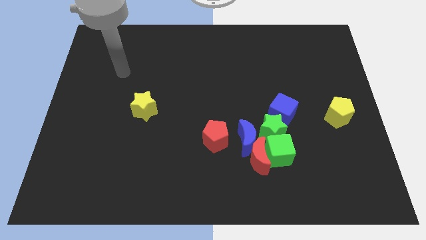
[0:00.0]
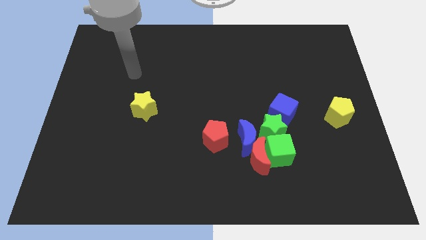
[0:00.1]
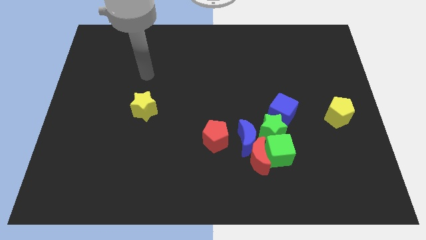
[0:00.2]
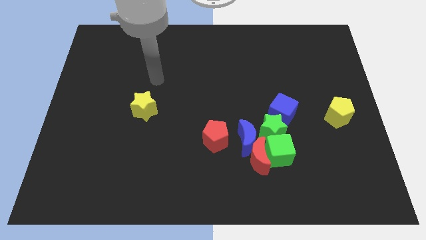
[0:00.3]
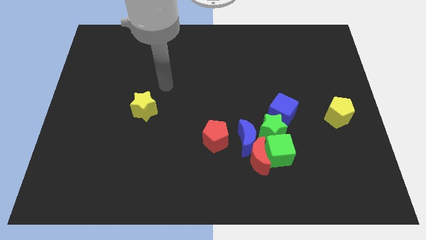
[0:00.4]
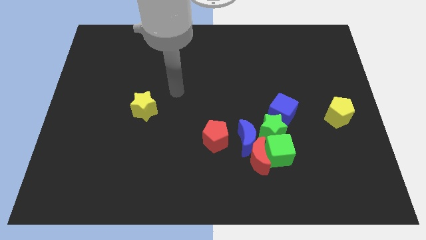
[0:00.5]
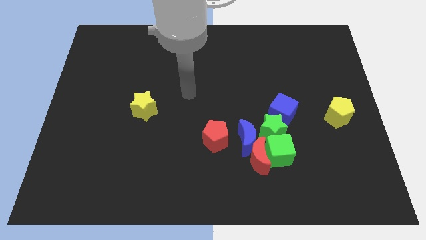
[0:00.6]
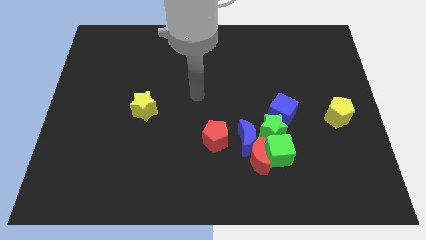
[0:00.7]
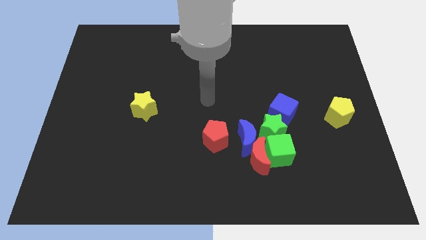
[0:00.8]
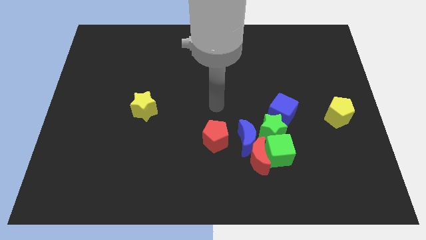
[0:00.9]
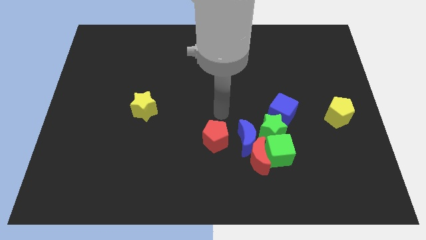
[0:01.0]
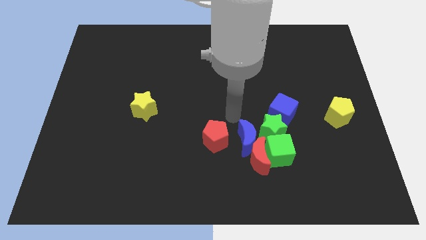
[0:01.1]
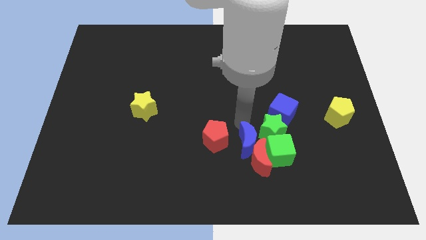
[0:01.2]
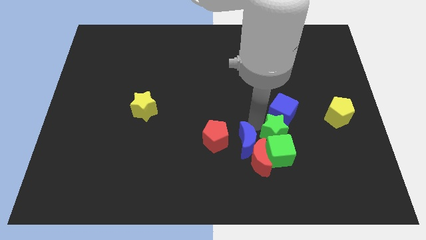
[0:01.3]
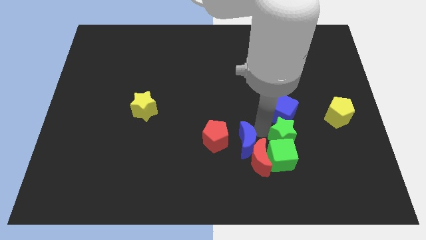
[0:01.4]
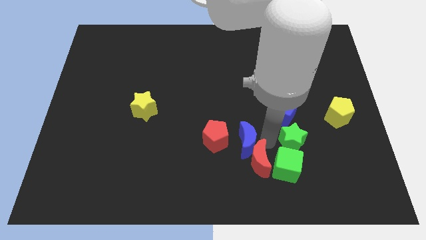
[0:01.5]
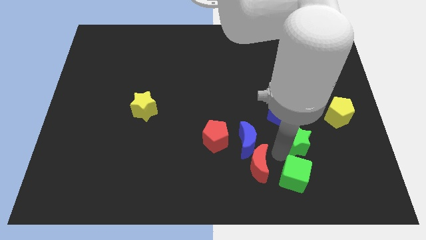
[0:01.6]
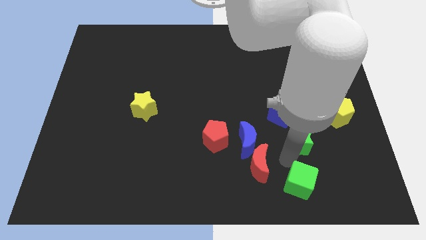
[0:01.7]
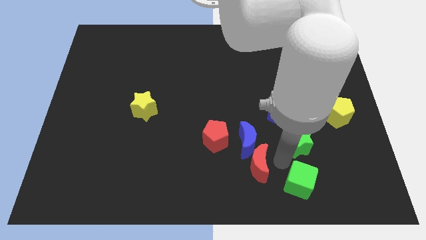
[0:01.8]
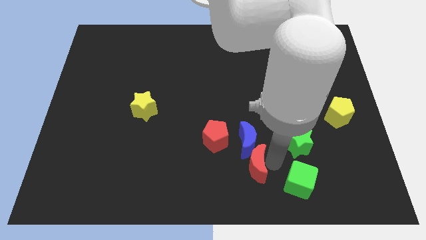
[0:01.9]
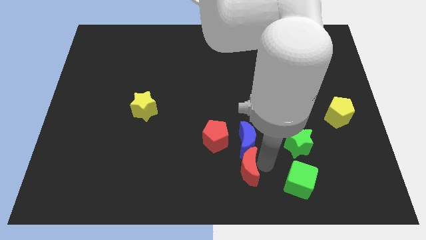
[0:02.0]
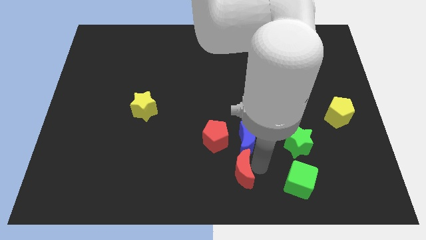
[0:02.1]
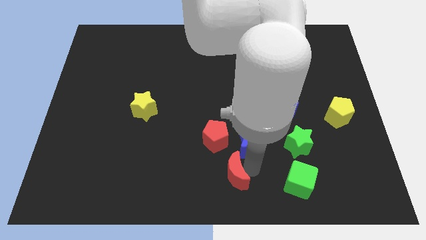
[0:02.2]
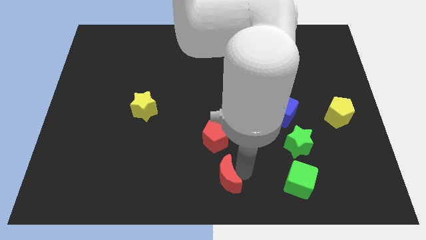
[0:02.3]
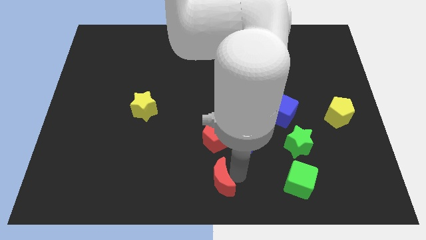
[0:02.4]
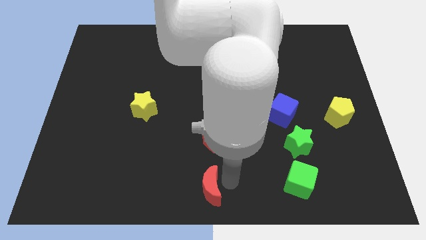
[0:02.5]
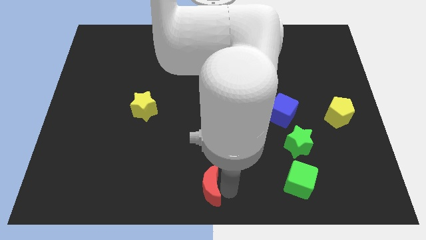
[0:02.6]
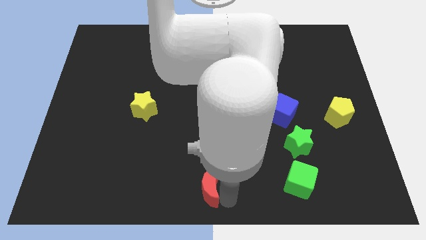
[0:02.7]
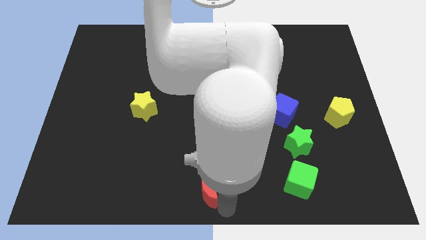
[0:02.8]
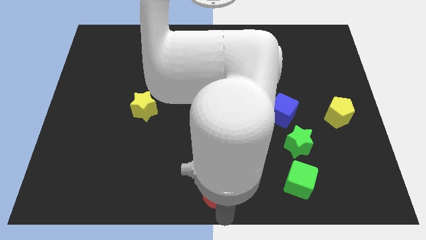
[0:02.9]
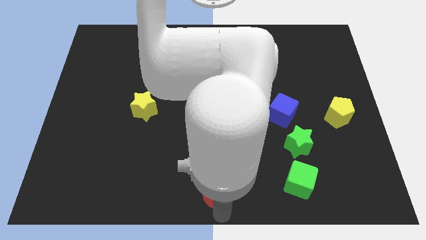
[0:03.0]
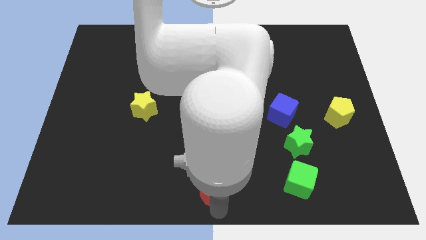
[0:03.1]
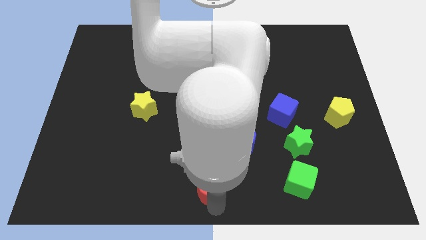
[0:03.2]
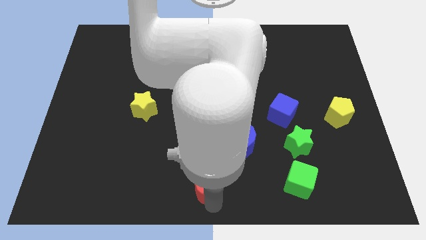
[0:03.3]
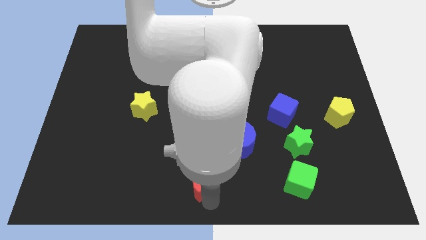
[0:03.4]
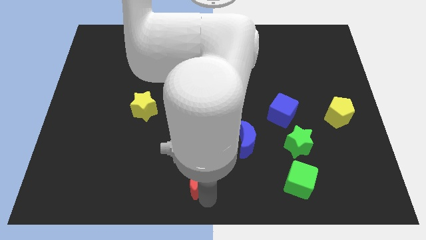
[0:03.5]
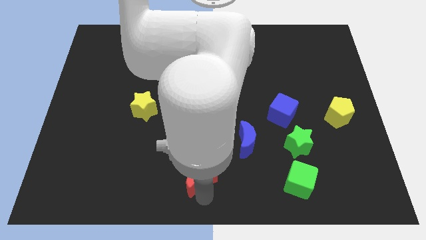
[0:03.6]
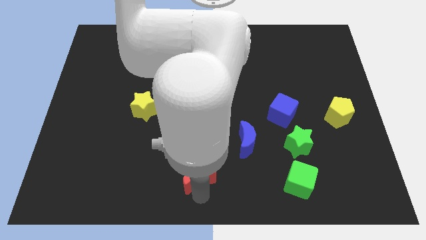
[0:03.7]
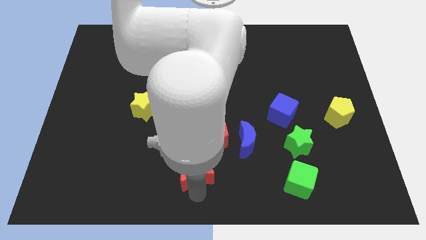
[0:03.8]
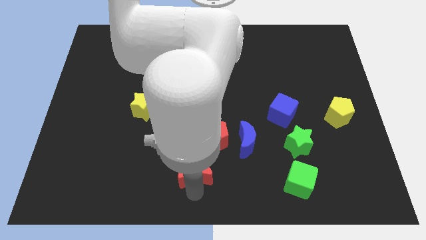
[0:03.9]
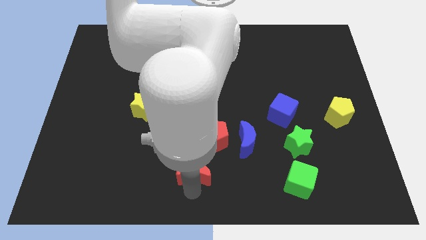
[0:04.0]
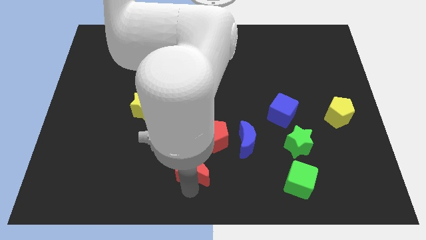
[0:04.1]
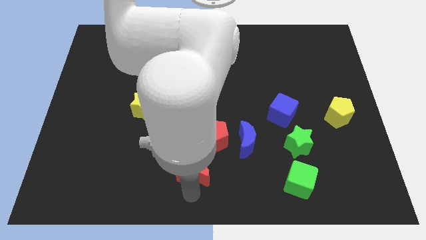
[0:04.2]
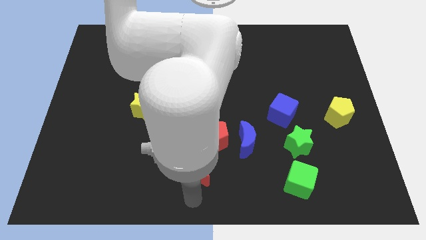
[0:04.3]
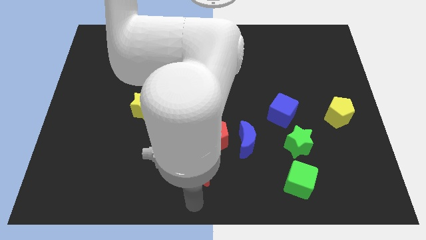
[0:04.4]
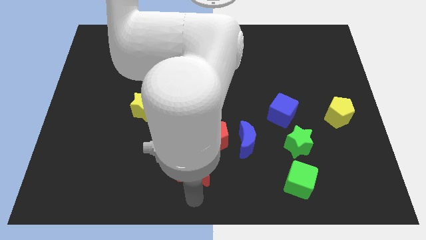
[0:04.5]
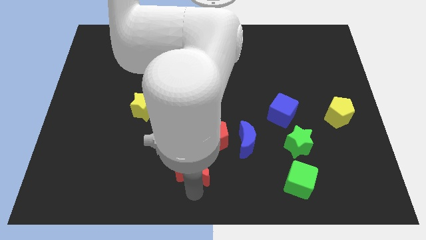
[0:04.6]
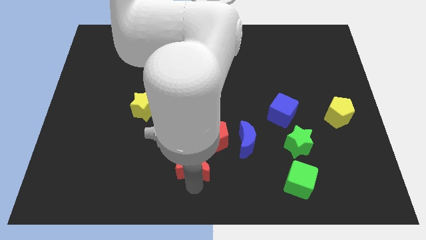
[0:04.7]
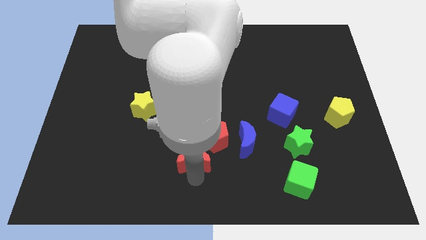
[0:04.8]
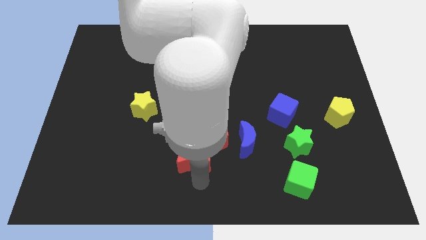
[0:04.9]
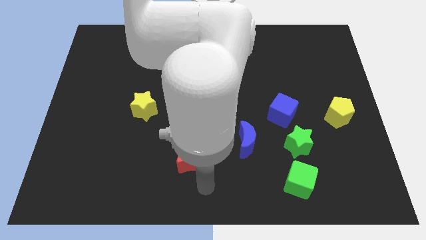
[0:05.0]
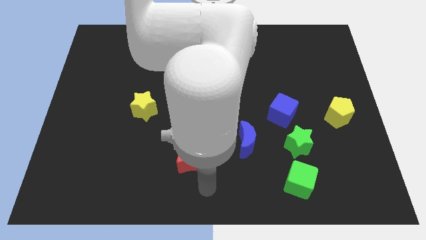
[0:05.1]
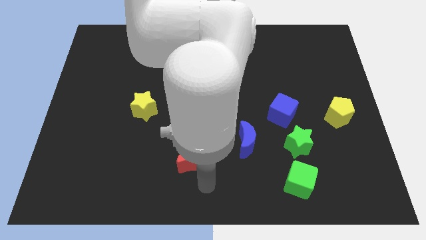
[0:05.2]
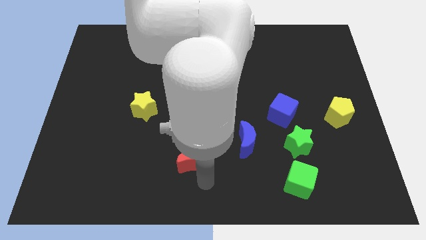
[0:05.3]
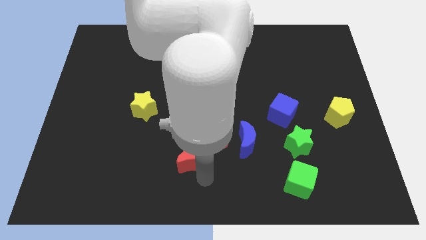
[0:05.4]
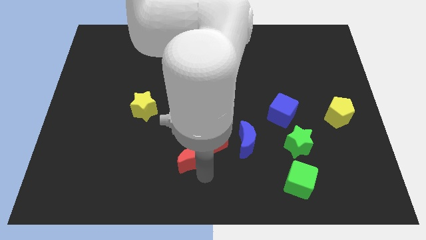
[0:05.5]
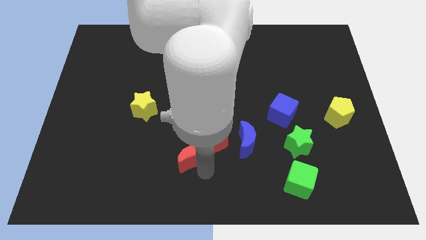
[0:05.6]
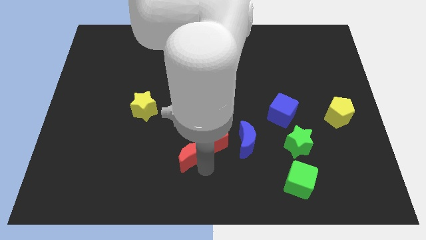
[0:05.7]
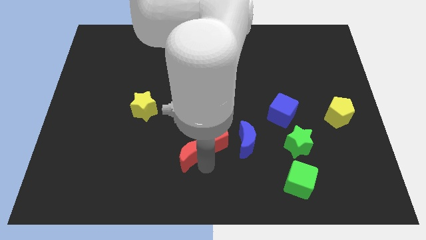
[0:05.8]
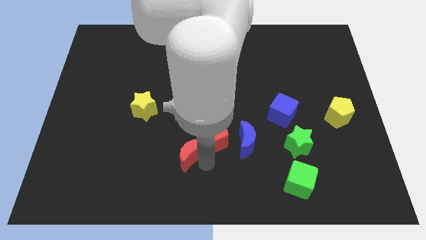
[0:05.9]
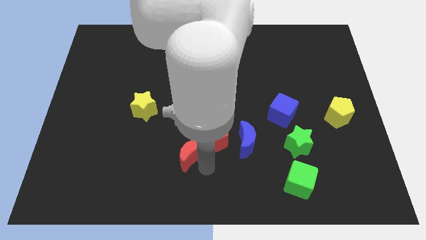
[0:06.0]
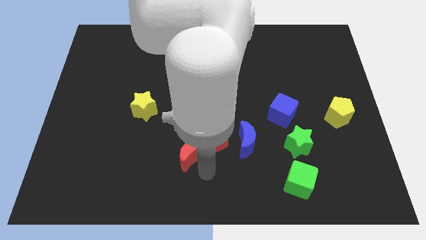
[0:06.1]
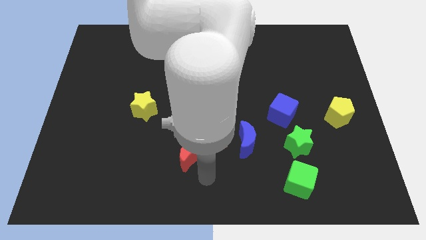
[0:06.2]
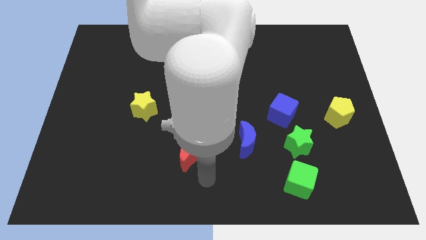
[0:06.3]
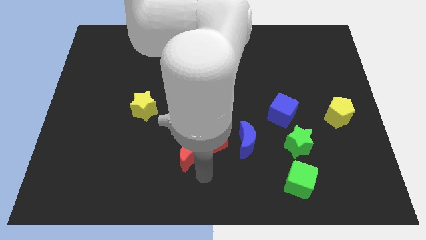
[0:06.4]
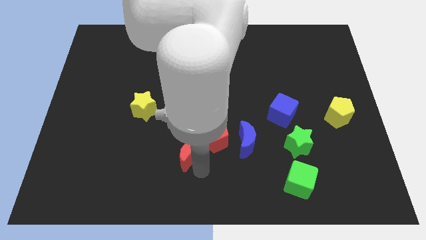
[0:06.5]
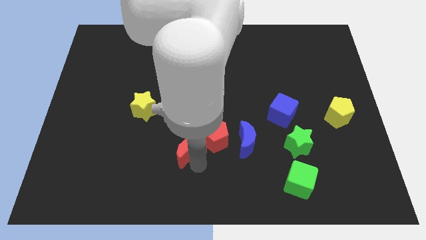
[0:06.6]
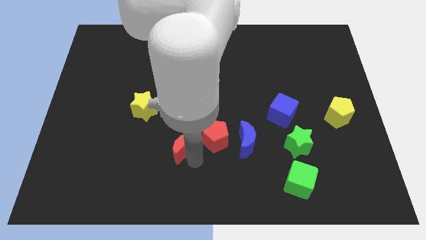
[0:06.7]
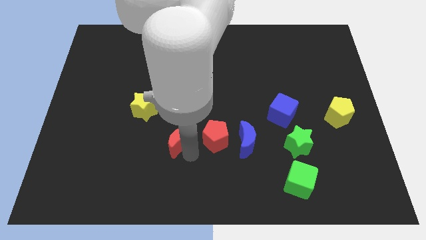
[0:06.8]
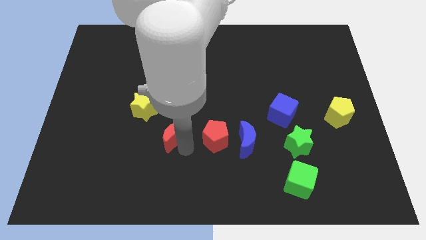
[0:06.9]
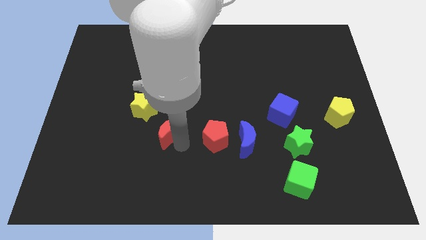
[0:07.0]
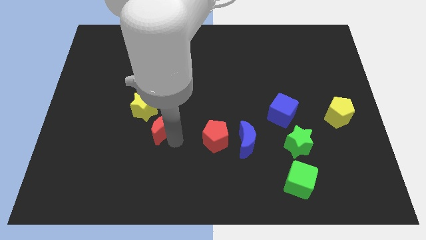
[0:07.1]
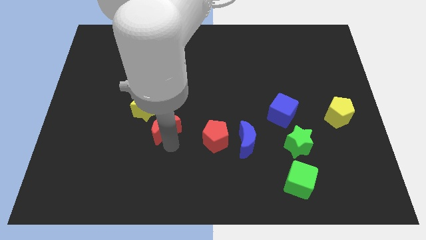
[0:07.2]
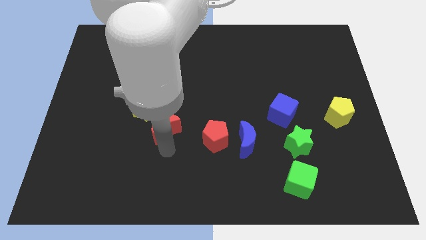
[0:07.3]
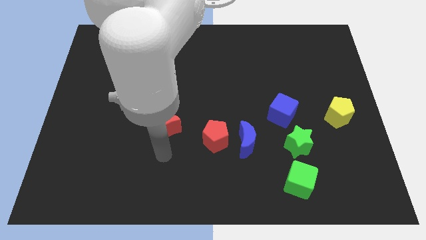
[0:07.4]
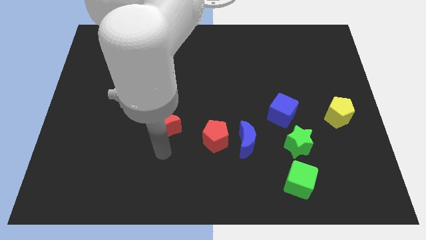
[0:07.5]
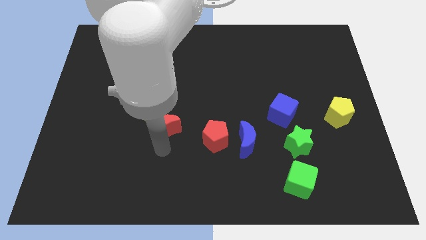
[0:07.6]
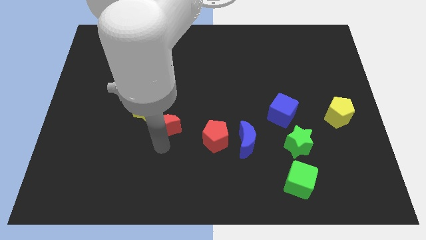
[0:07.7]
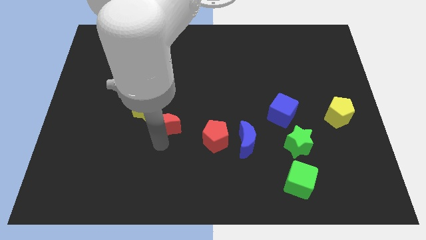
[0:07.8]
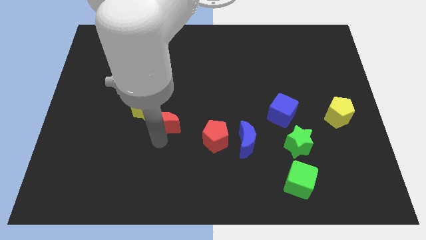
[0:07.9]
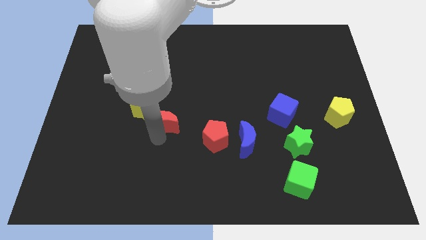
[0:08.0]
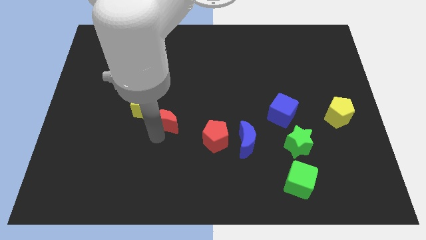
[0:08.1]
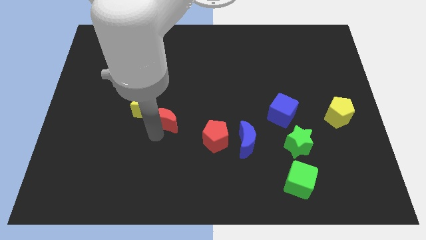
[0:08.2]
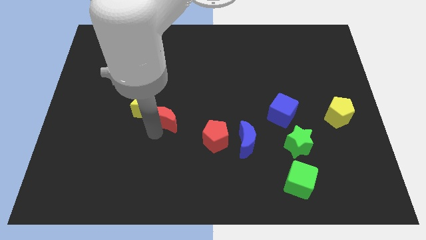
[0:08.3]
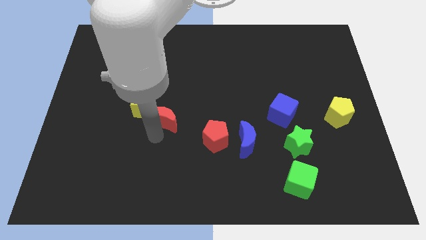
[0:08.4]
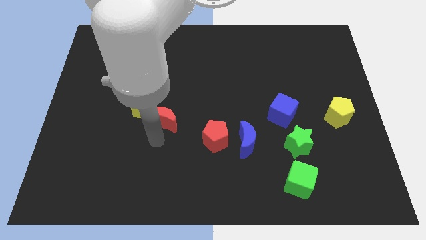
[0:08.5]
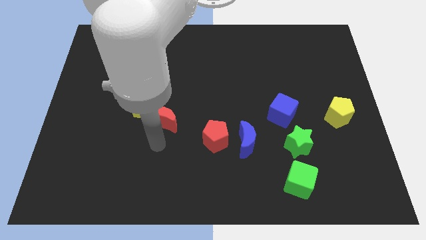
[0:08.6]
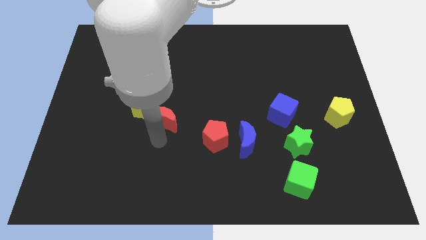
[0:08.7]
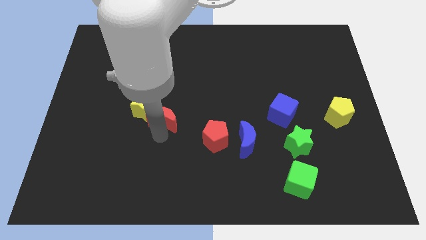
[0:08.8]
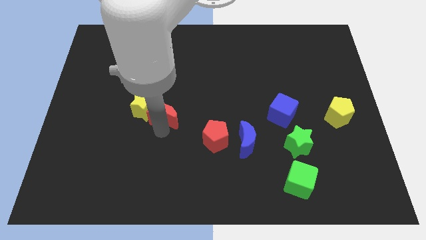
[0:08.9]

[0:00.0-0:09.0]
move the red moon up and left diagonally
